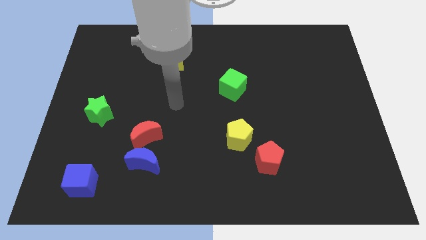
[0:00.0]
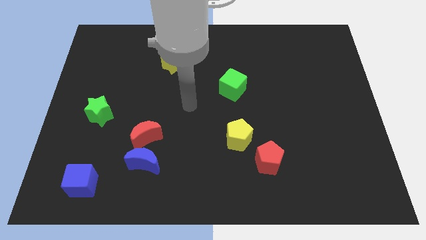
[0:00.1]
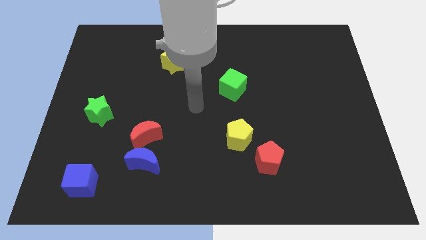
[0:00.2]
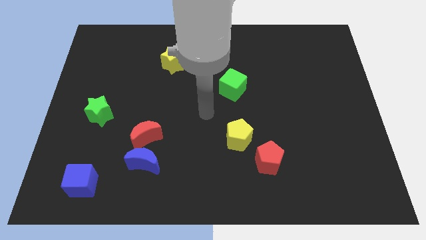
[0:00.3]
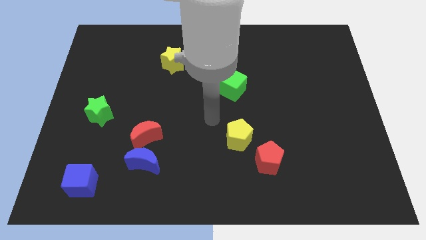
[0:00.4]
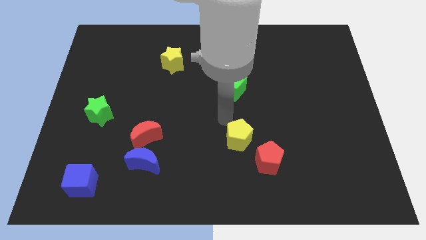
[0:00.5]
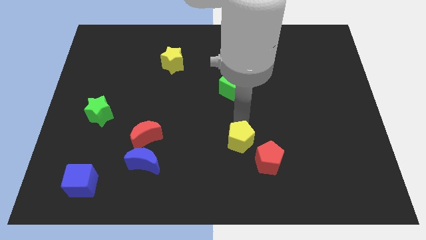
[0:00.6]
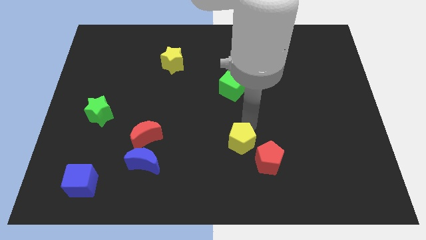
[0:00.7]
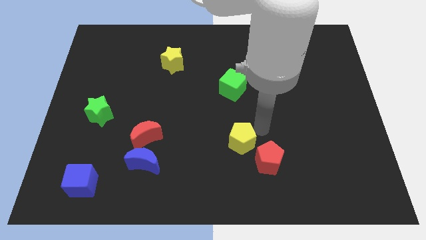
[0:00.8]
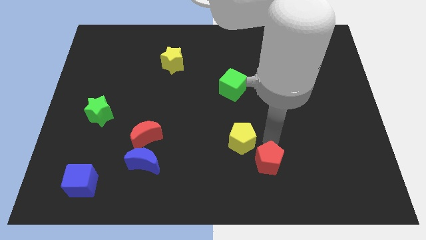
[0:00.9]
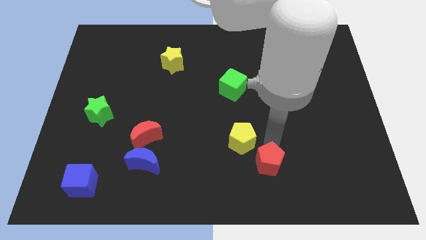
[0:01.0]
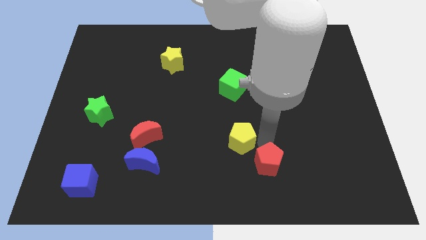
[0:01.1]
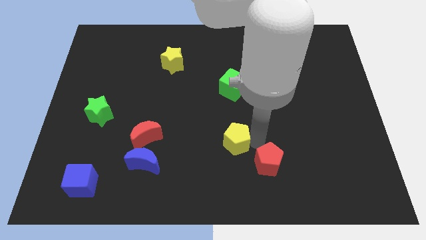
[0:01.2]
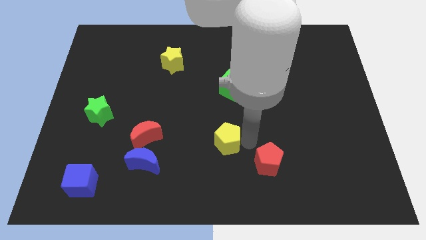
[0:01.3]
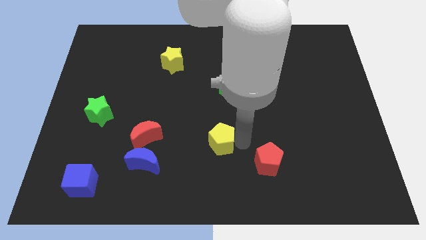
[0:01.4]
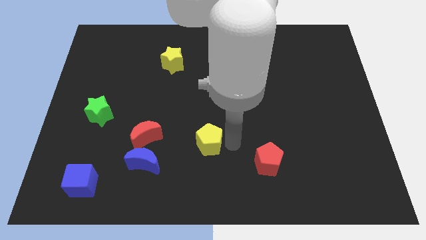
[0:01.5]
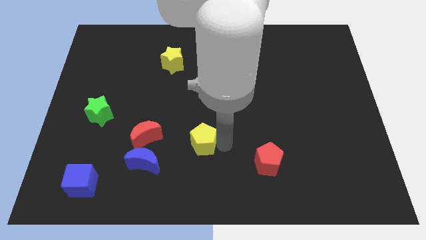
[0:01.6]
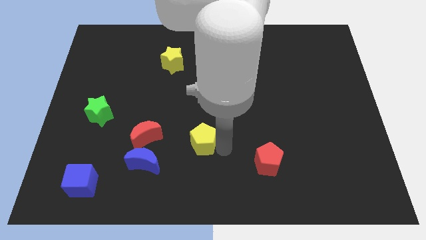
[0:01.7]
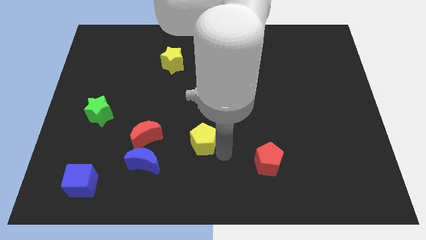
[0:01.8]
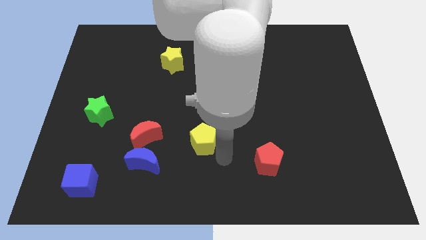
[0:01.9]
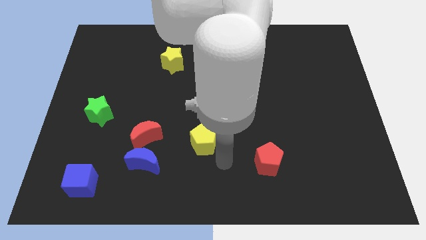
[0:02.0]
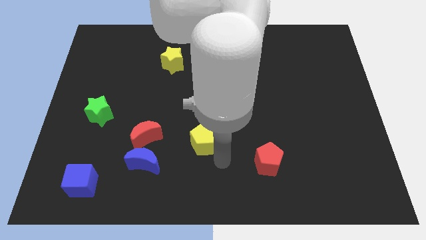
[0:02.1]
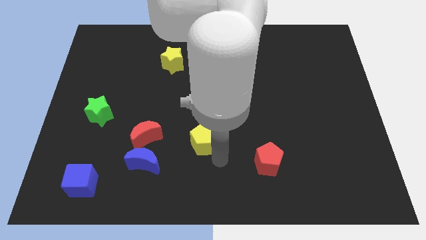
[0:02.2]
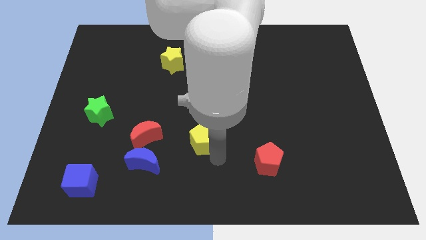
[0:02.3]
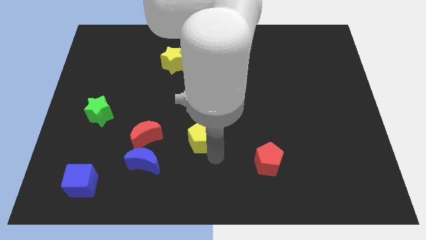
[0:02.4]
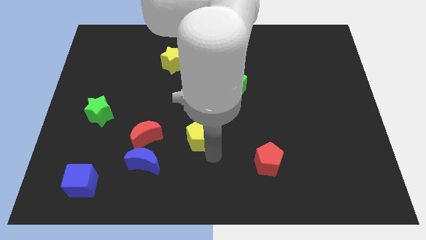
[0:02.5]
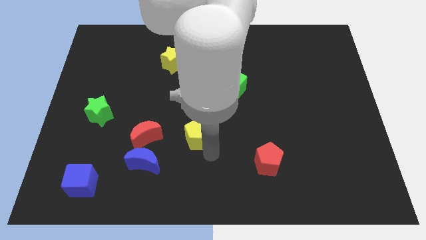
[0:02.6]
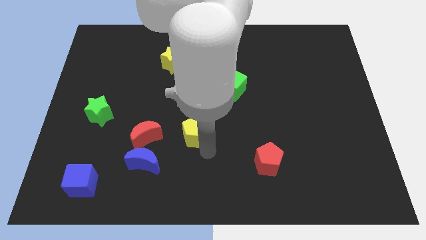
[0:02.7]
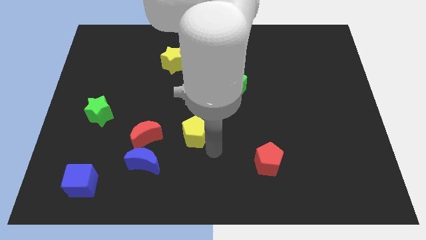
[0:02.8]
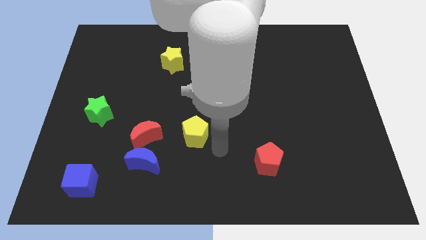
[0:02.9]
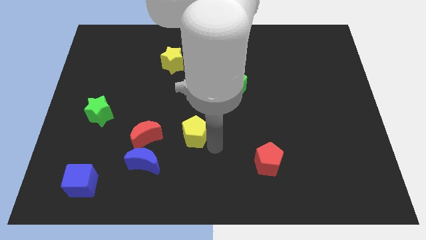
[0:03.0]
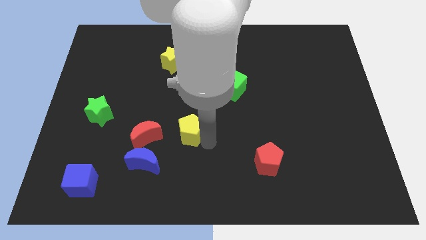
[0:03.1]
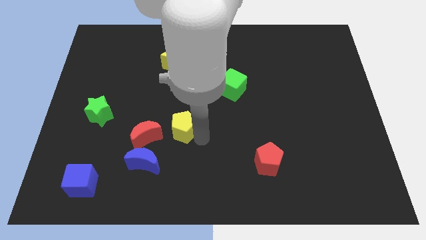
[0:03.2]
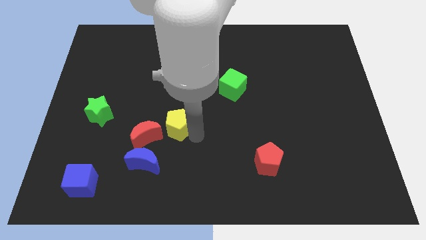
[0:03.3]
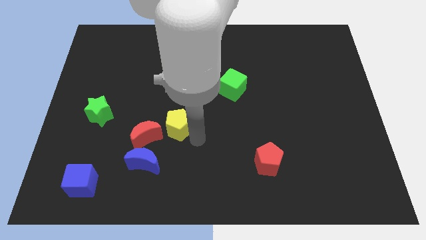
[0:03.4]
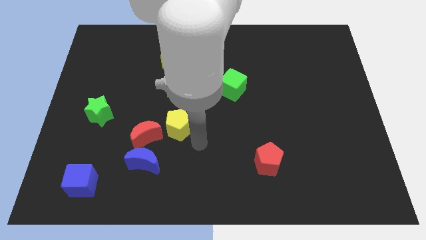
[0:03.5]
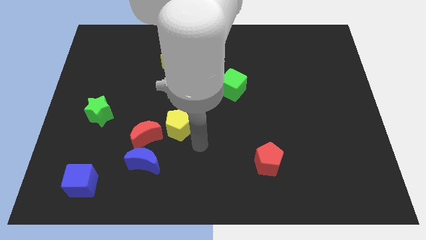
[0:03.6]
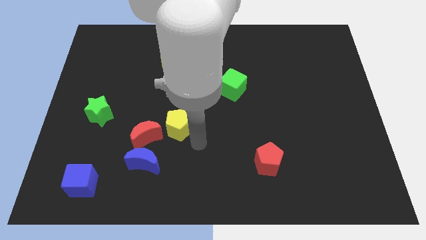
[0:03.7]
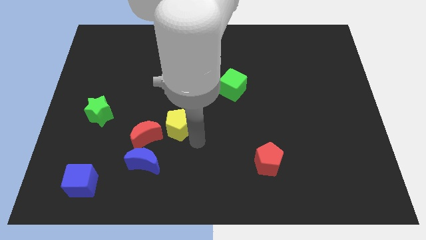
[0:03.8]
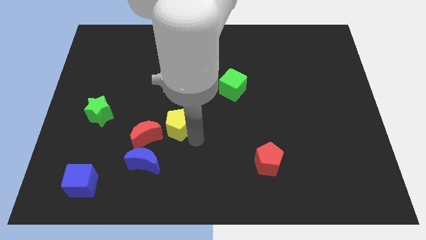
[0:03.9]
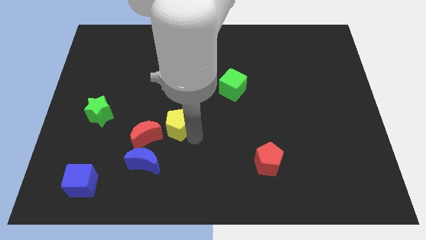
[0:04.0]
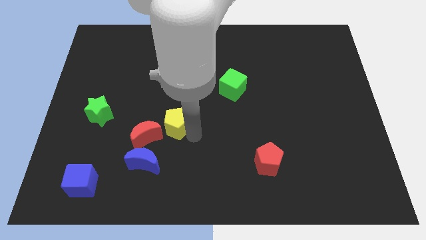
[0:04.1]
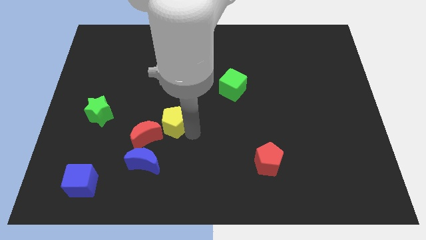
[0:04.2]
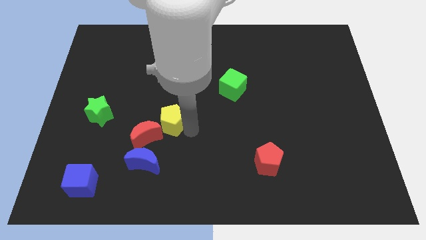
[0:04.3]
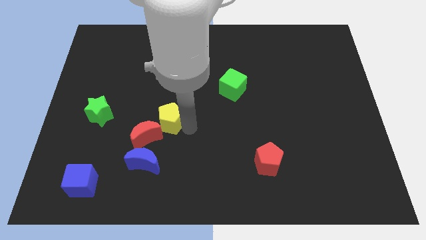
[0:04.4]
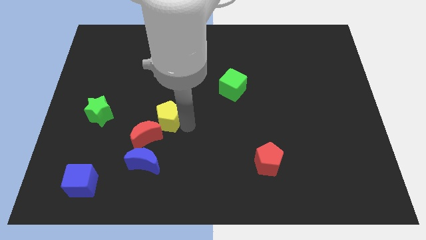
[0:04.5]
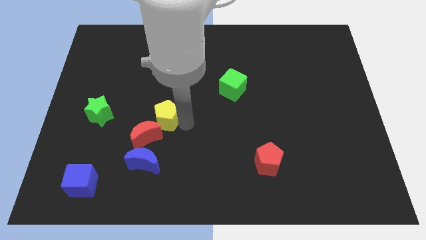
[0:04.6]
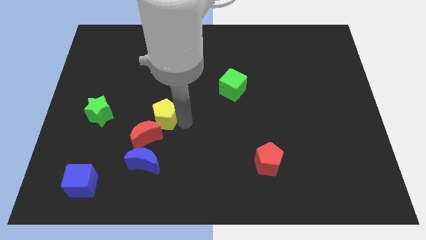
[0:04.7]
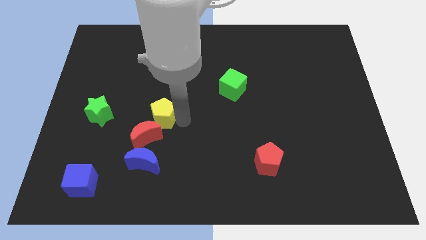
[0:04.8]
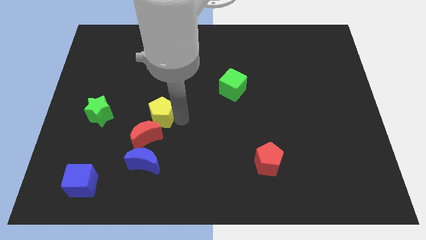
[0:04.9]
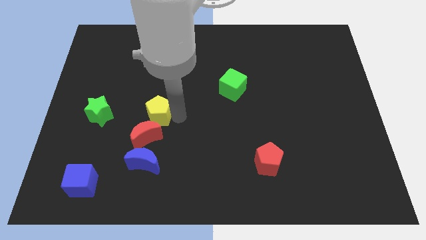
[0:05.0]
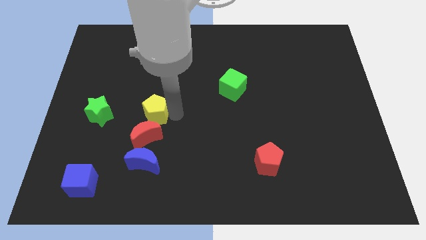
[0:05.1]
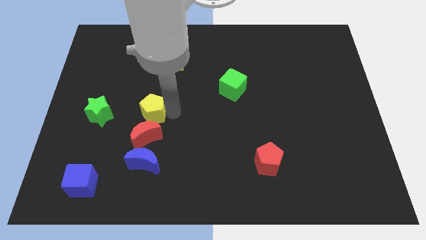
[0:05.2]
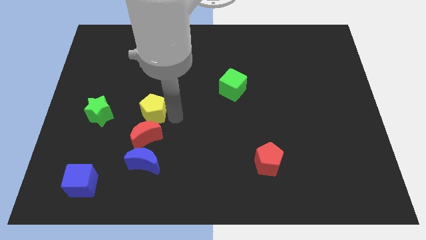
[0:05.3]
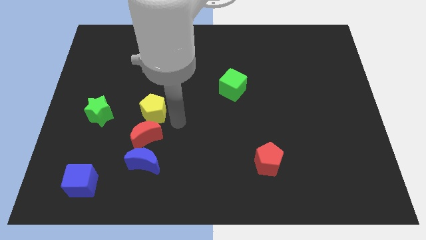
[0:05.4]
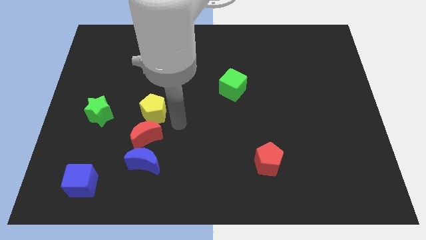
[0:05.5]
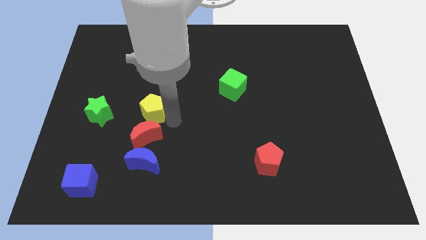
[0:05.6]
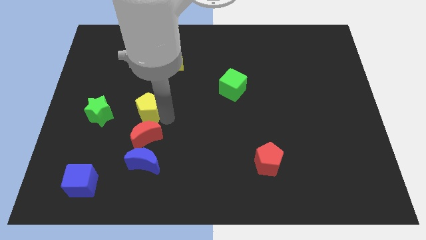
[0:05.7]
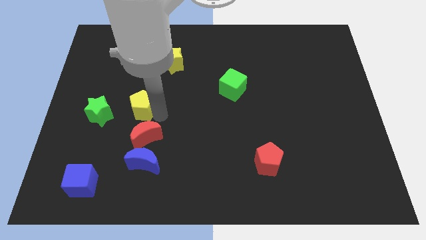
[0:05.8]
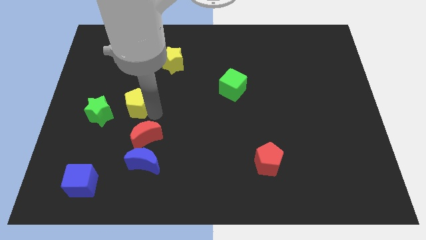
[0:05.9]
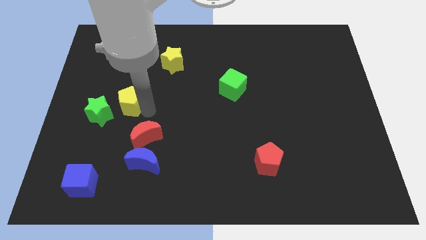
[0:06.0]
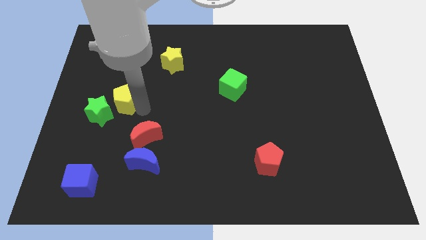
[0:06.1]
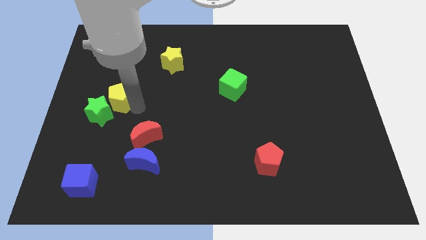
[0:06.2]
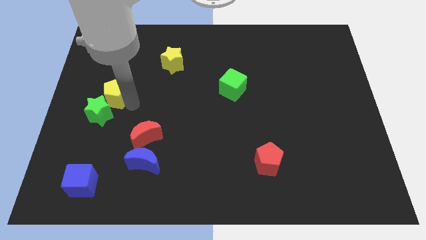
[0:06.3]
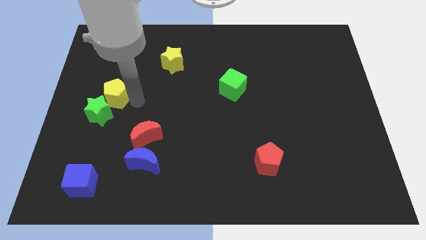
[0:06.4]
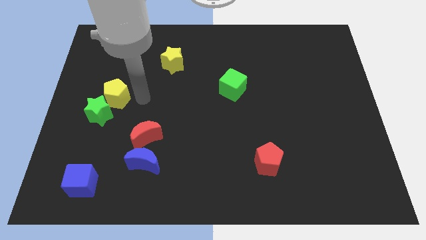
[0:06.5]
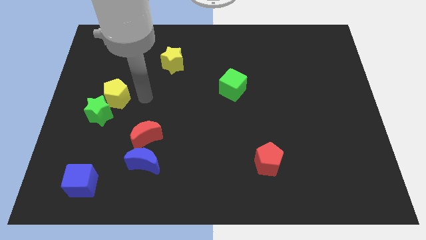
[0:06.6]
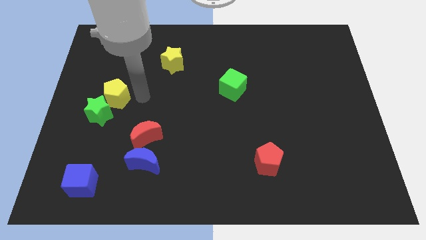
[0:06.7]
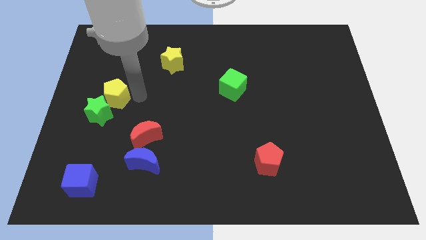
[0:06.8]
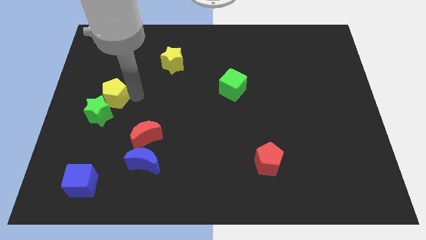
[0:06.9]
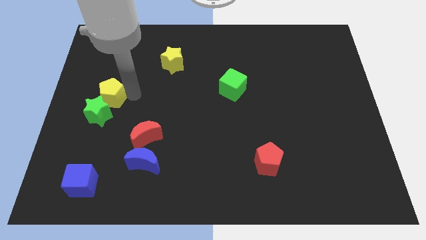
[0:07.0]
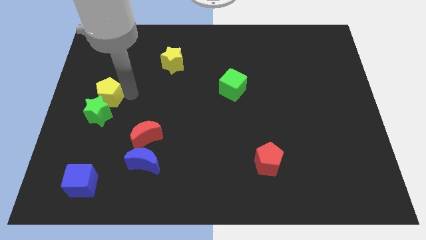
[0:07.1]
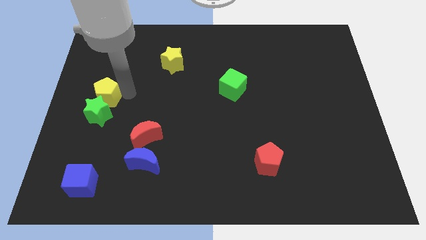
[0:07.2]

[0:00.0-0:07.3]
move the yellow pentagon to the left side of the board
